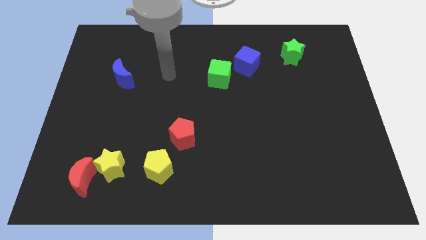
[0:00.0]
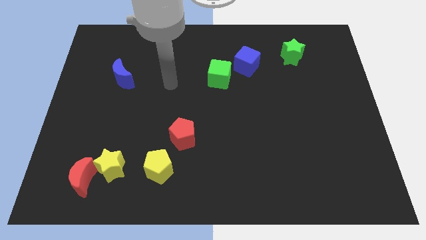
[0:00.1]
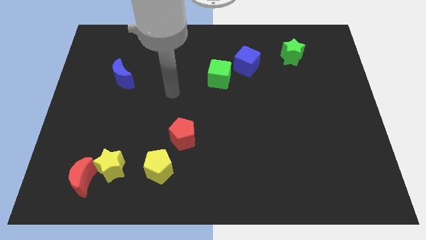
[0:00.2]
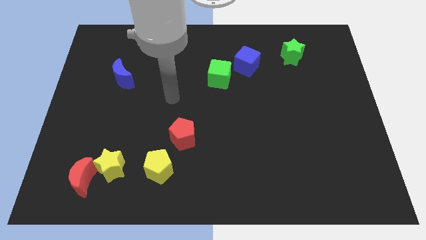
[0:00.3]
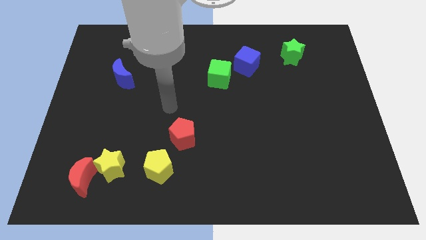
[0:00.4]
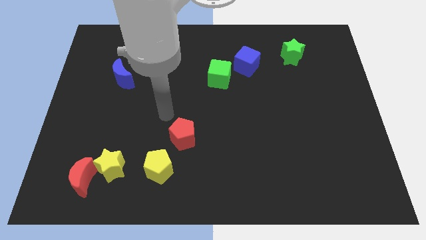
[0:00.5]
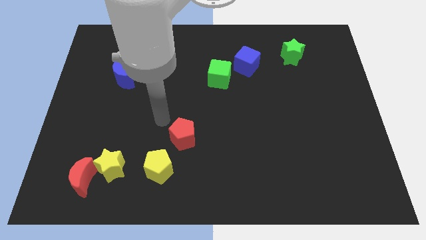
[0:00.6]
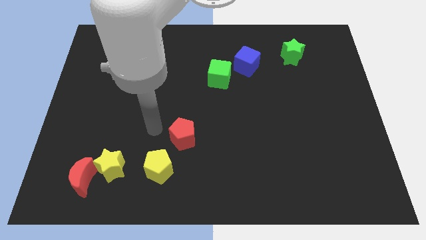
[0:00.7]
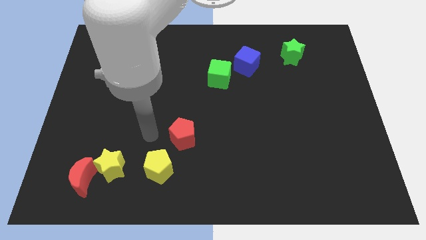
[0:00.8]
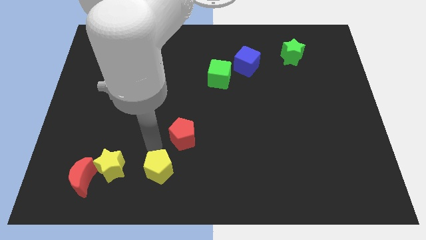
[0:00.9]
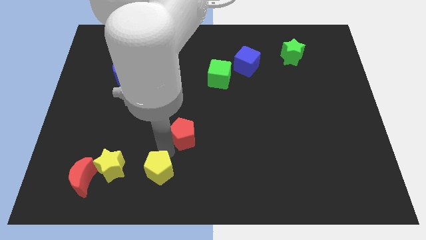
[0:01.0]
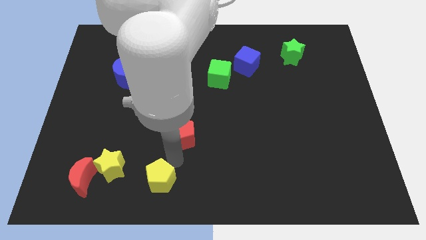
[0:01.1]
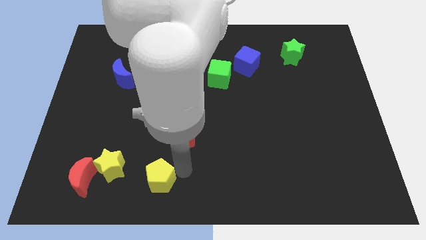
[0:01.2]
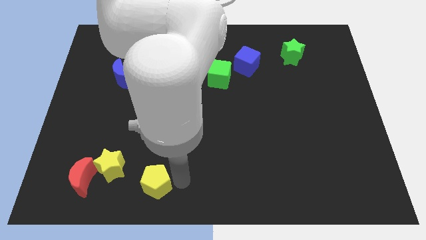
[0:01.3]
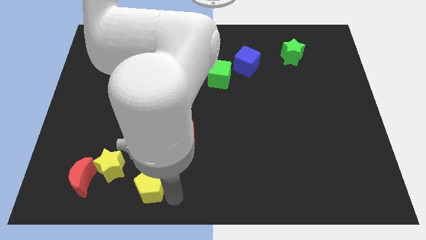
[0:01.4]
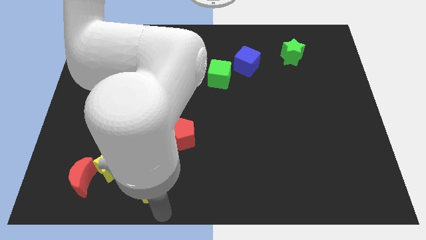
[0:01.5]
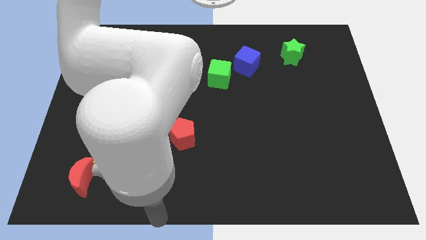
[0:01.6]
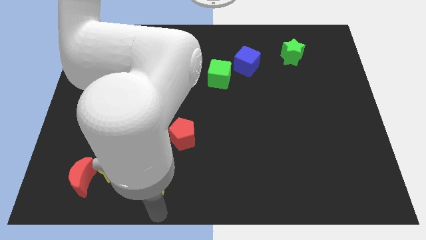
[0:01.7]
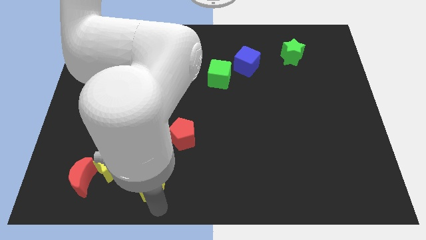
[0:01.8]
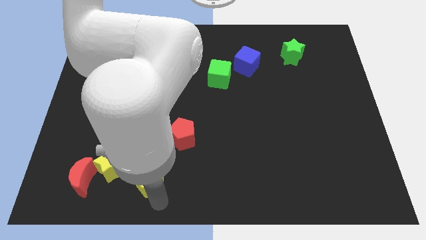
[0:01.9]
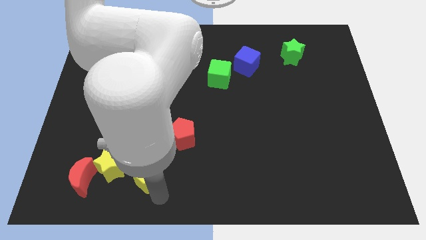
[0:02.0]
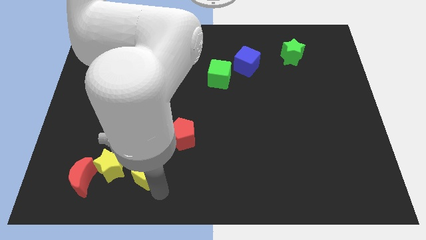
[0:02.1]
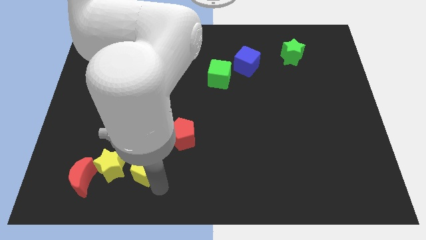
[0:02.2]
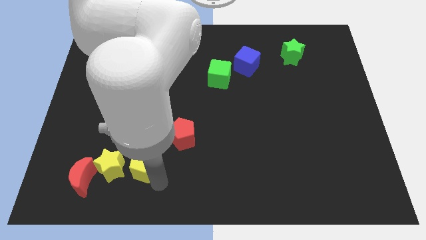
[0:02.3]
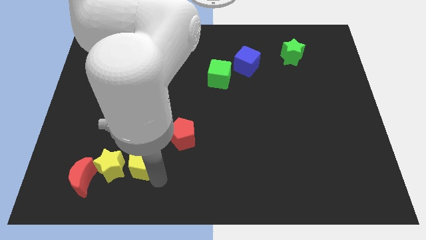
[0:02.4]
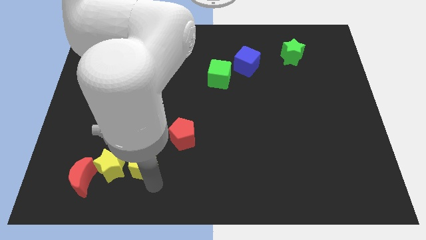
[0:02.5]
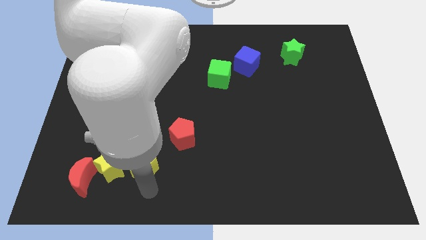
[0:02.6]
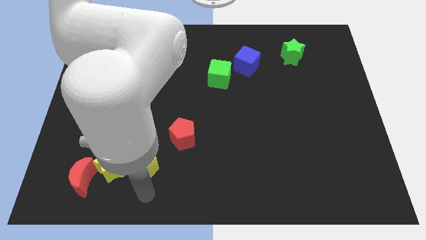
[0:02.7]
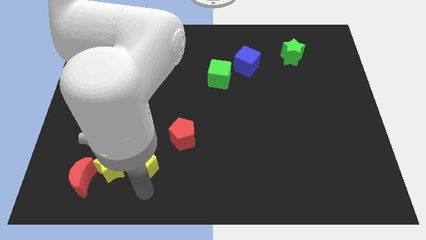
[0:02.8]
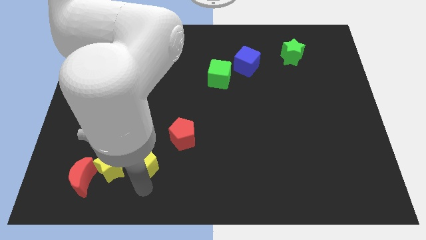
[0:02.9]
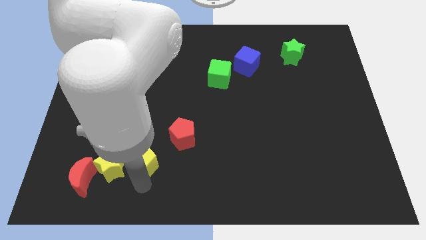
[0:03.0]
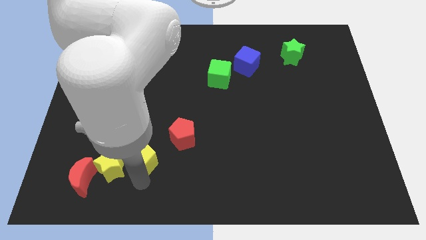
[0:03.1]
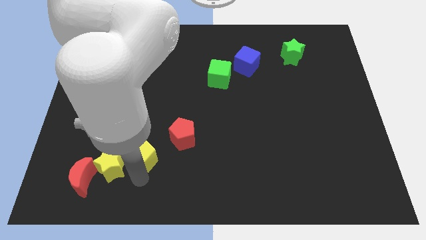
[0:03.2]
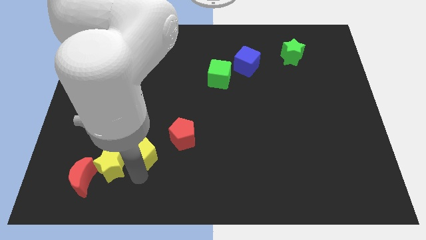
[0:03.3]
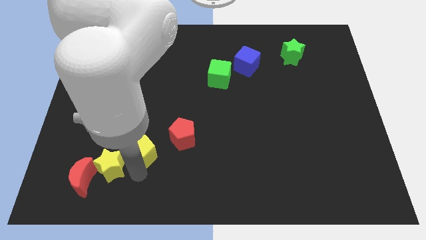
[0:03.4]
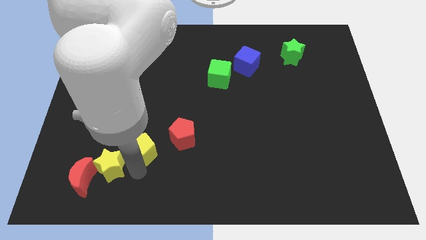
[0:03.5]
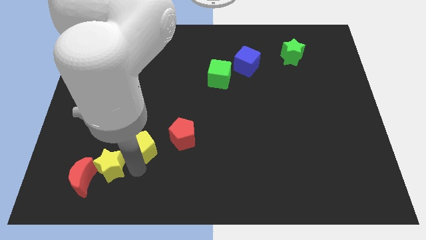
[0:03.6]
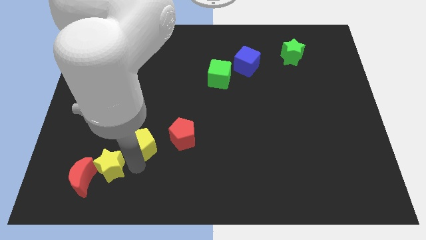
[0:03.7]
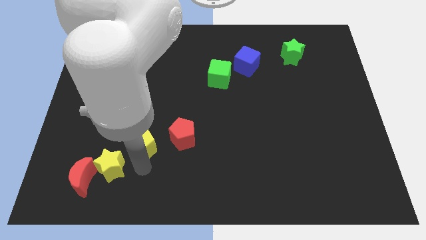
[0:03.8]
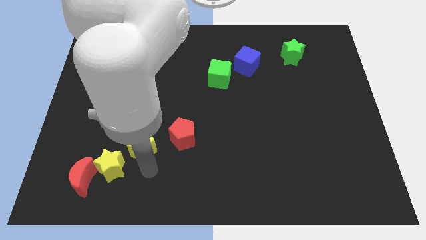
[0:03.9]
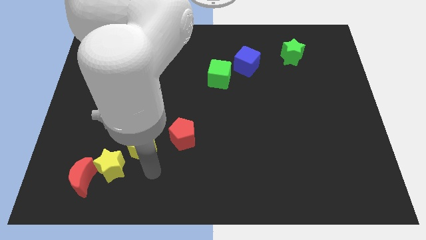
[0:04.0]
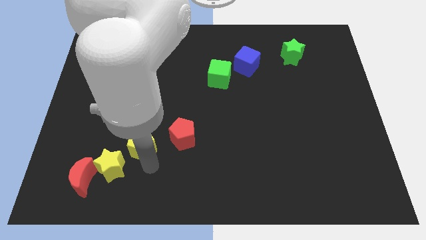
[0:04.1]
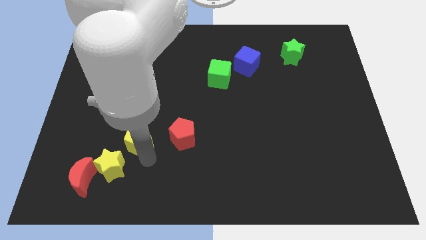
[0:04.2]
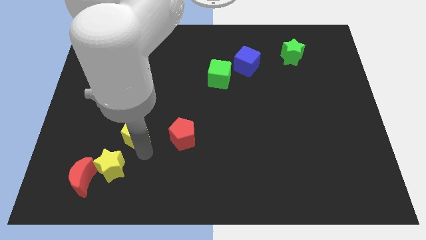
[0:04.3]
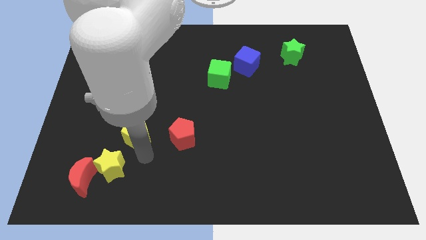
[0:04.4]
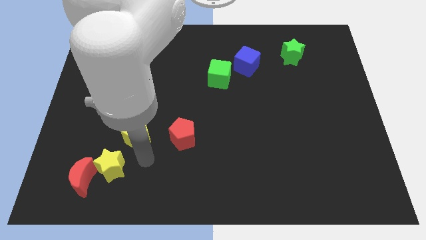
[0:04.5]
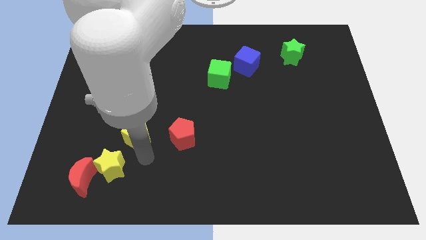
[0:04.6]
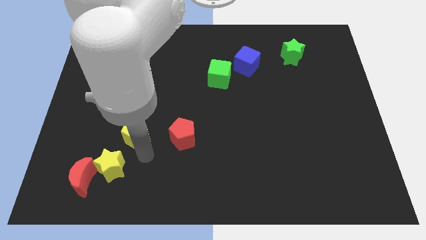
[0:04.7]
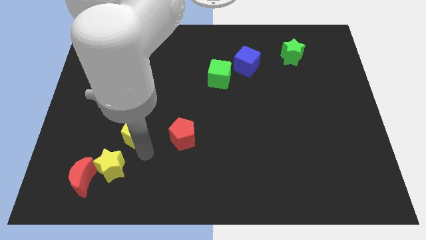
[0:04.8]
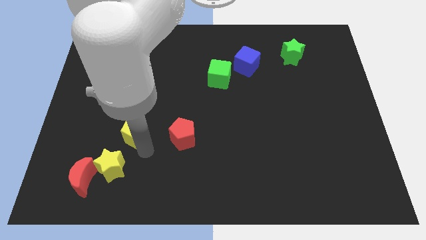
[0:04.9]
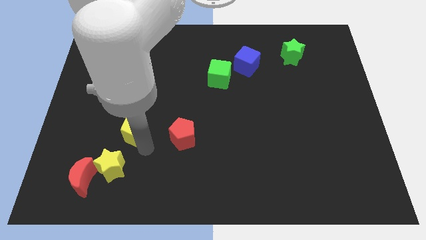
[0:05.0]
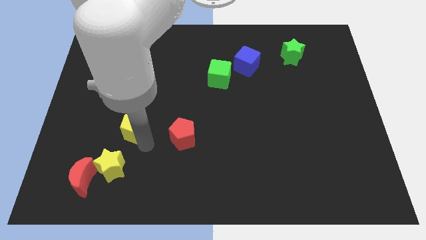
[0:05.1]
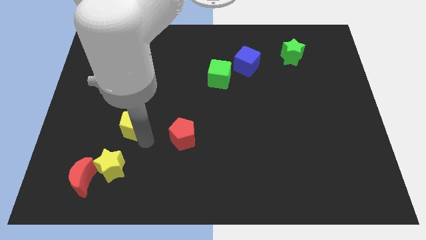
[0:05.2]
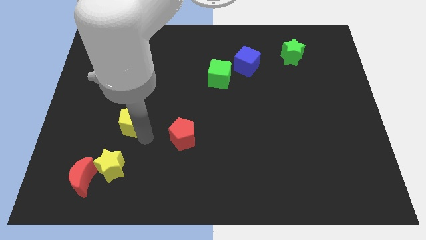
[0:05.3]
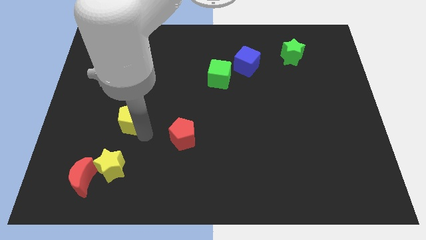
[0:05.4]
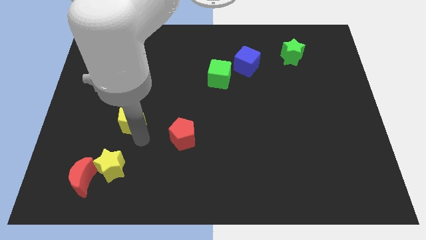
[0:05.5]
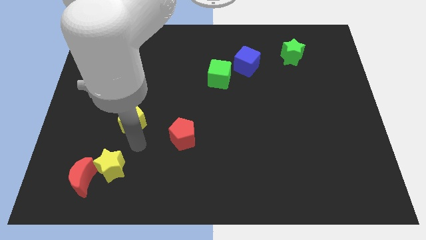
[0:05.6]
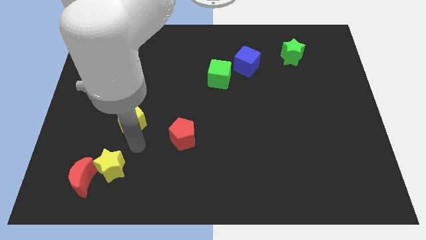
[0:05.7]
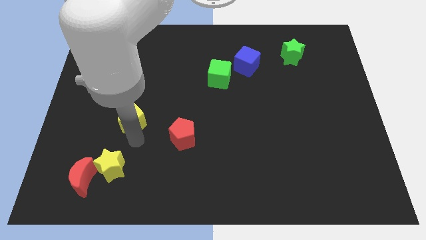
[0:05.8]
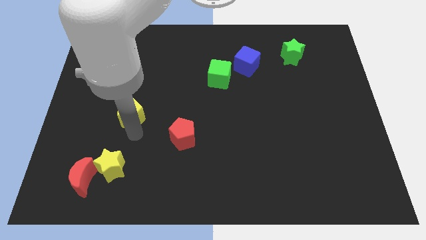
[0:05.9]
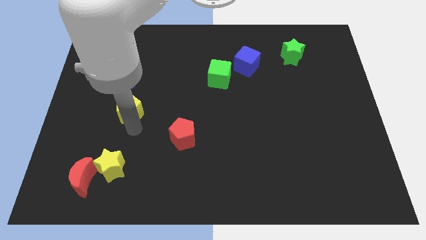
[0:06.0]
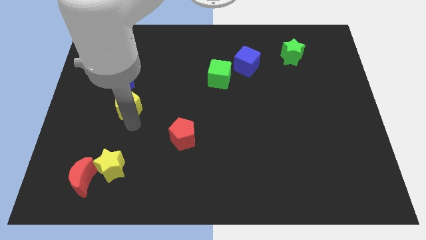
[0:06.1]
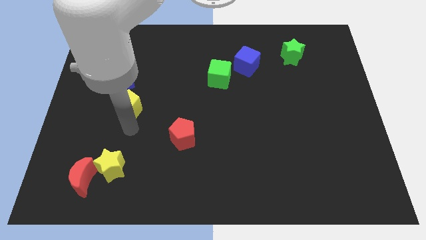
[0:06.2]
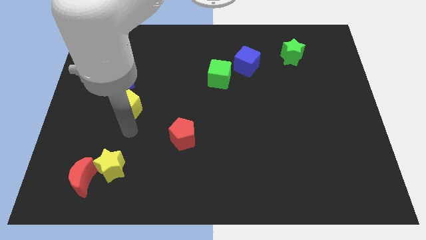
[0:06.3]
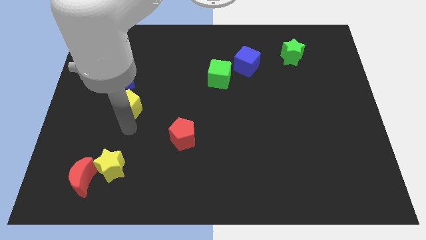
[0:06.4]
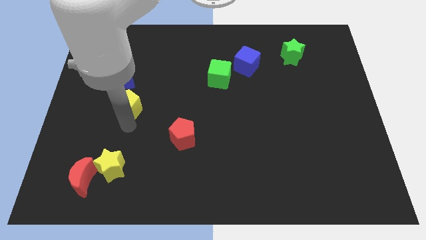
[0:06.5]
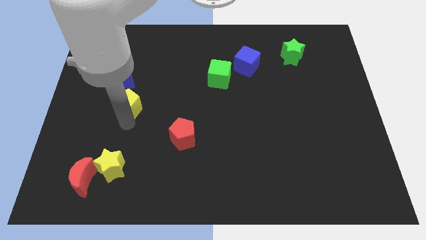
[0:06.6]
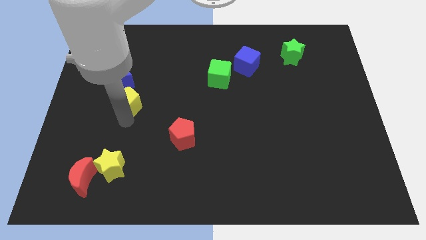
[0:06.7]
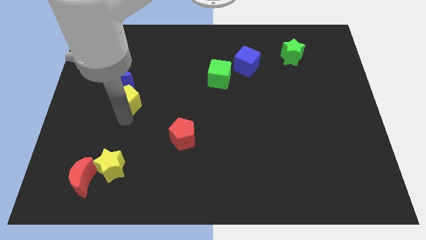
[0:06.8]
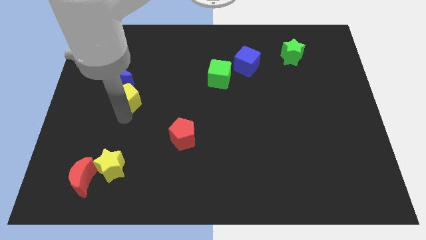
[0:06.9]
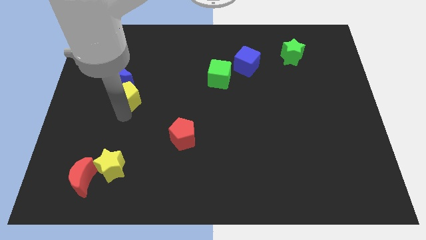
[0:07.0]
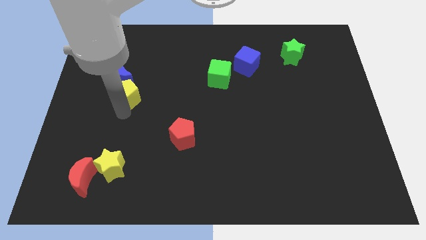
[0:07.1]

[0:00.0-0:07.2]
move the yellow pentagon to the blue moon
